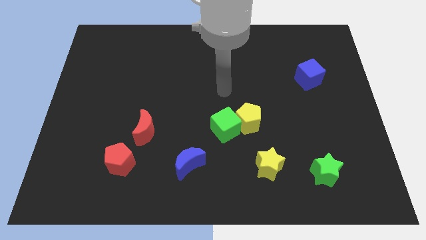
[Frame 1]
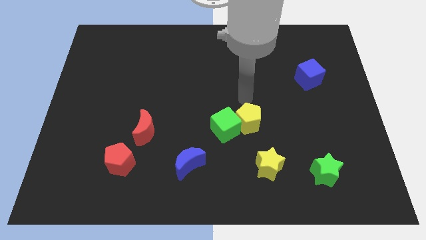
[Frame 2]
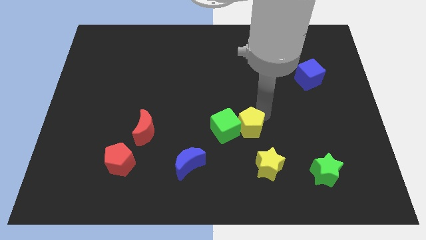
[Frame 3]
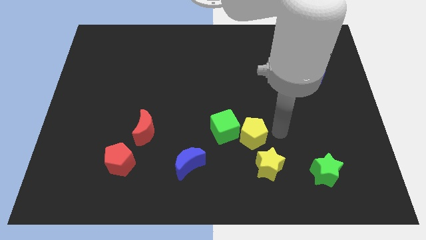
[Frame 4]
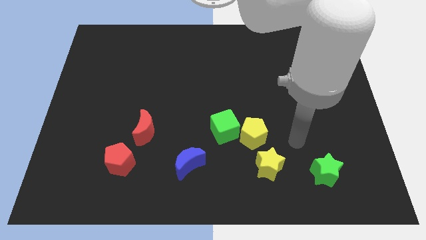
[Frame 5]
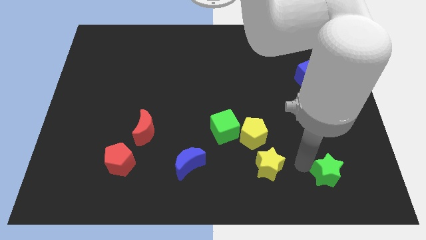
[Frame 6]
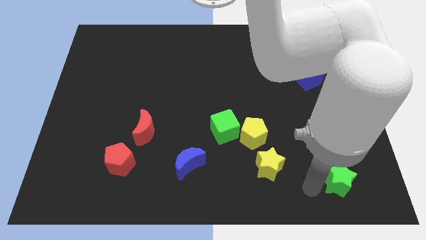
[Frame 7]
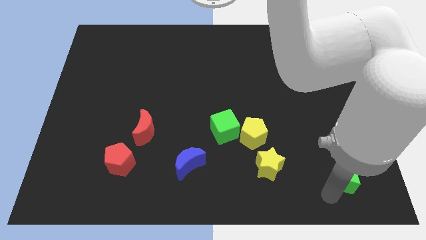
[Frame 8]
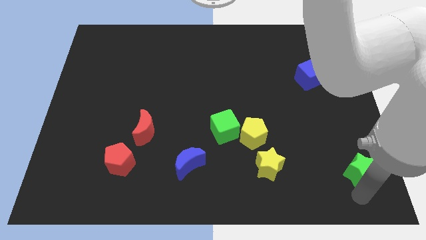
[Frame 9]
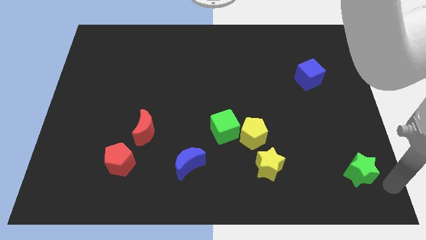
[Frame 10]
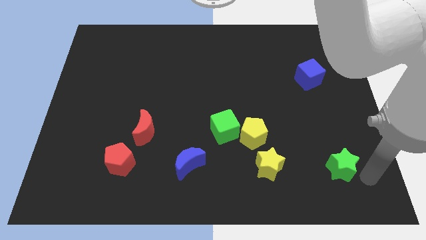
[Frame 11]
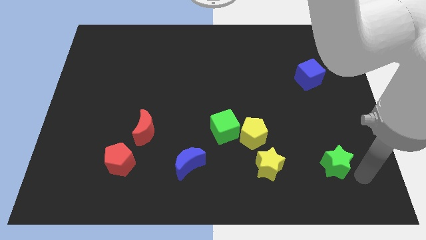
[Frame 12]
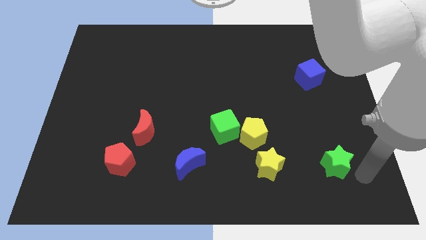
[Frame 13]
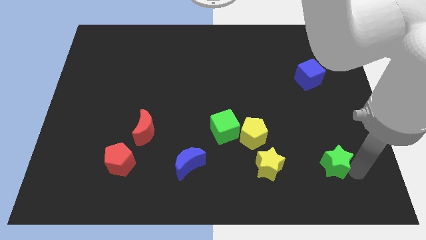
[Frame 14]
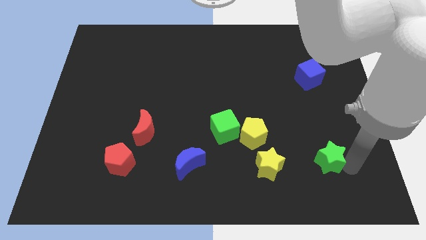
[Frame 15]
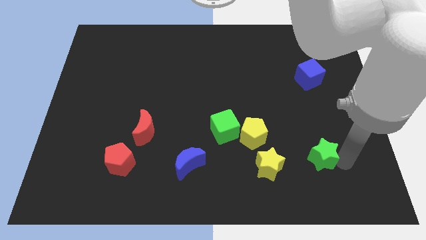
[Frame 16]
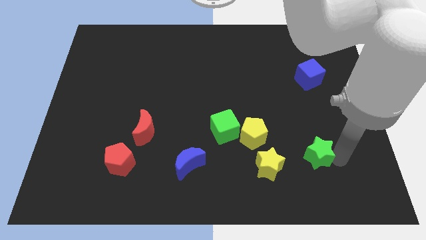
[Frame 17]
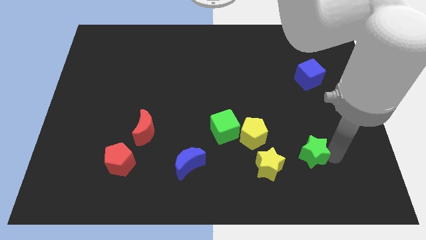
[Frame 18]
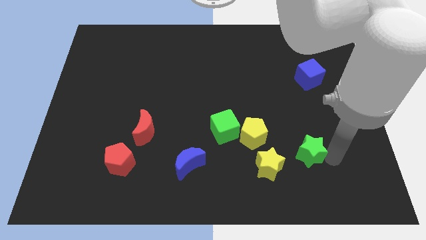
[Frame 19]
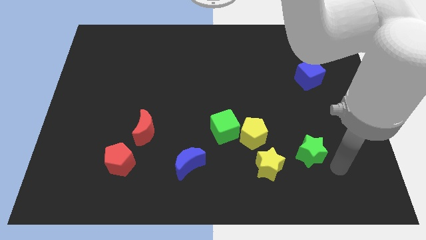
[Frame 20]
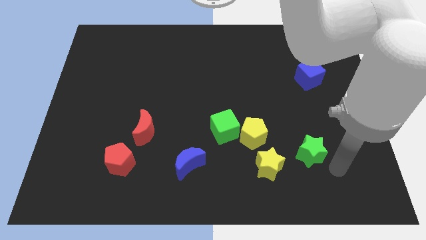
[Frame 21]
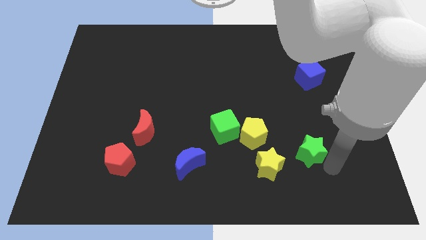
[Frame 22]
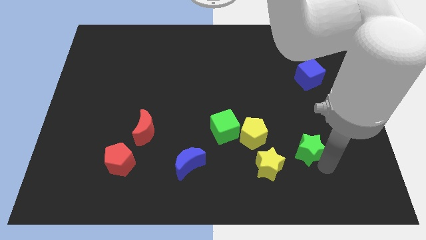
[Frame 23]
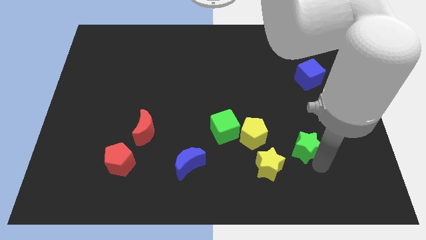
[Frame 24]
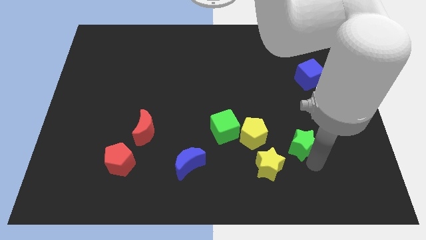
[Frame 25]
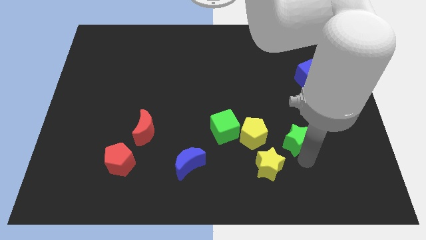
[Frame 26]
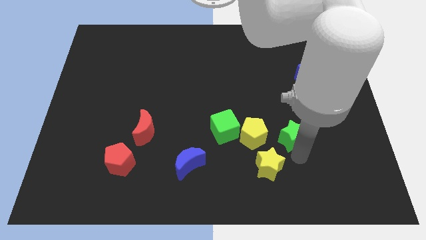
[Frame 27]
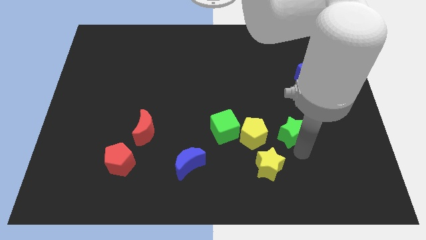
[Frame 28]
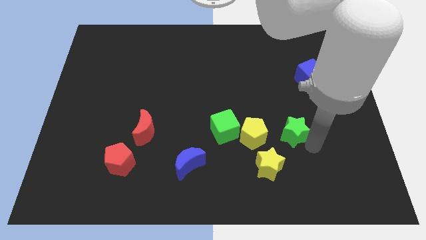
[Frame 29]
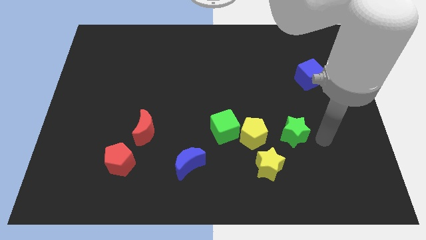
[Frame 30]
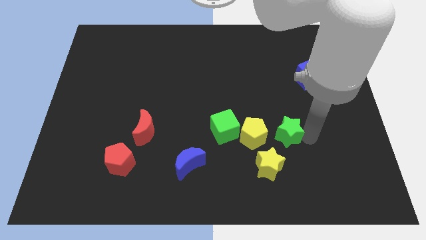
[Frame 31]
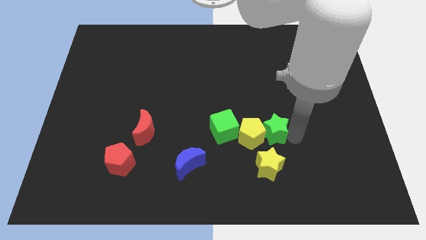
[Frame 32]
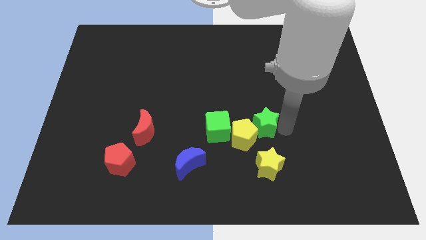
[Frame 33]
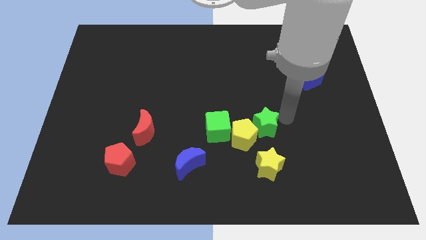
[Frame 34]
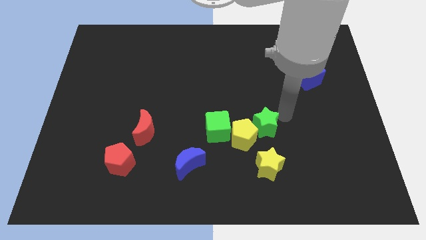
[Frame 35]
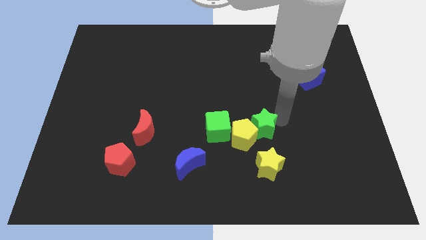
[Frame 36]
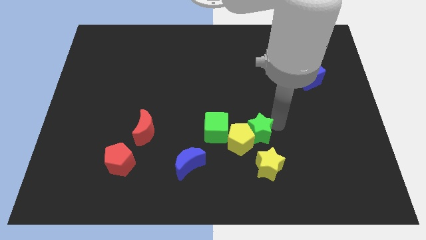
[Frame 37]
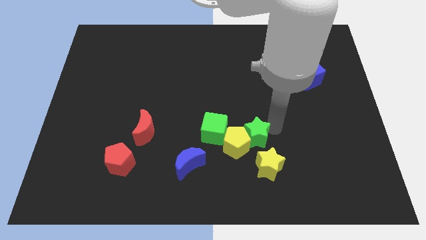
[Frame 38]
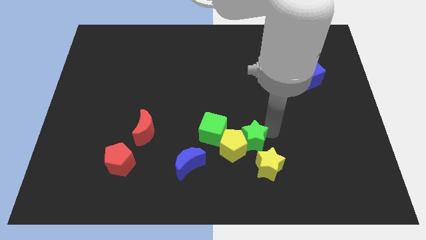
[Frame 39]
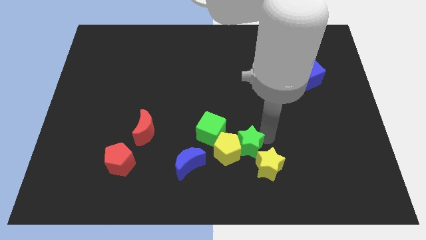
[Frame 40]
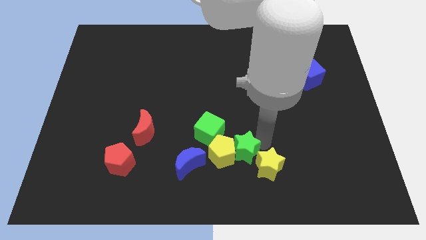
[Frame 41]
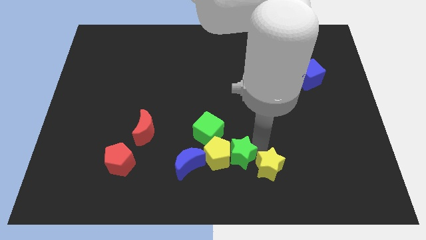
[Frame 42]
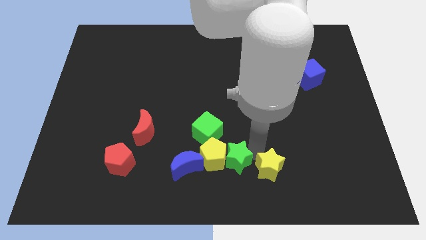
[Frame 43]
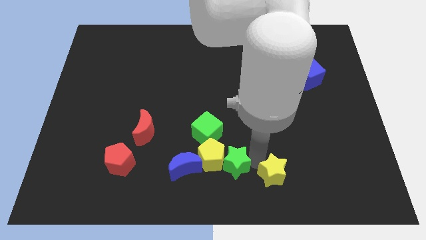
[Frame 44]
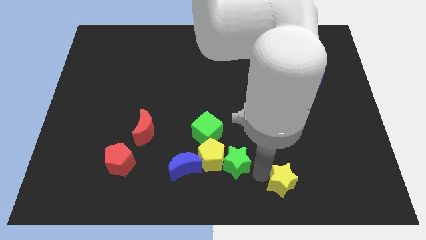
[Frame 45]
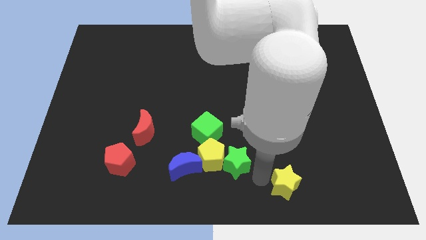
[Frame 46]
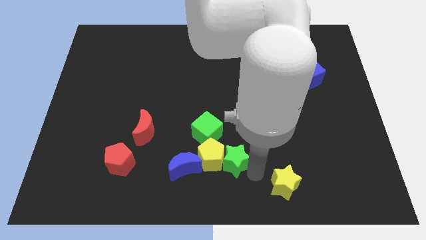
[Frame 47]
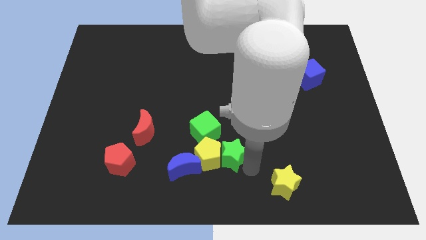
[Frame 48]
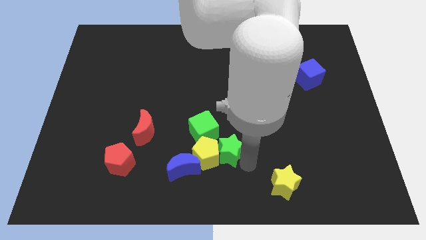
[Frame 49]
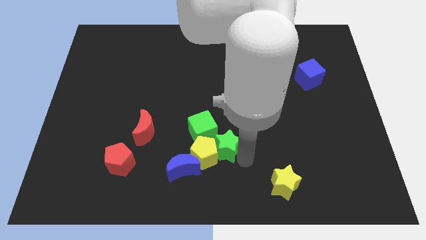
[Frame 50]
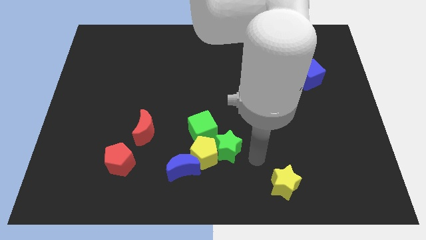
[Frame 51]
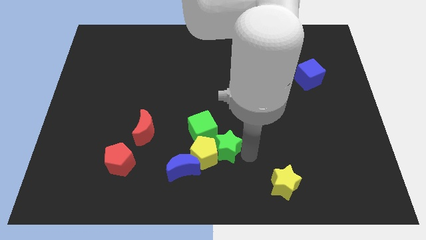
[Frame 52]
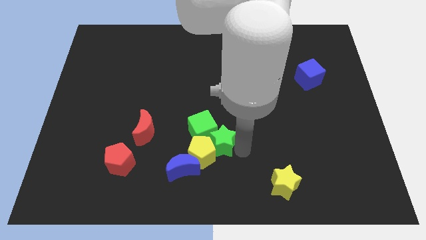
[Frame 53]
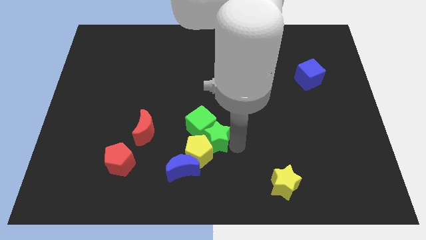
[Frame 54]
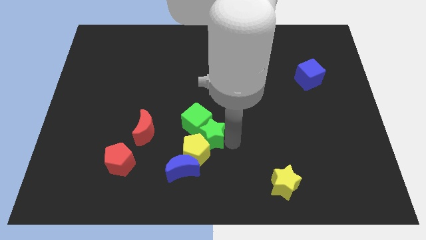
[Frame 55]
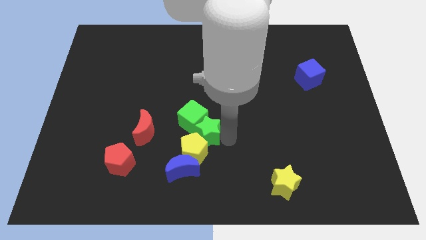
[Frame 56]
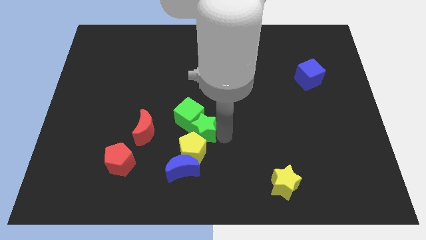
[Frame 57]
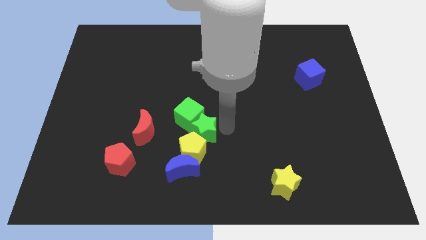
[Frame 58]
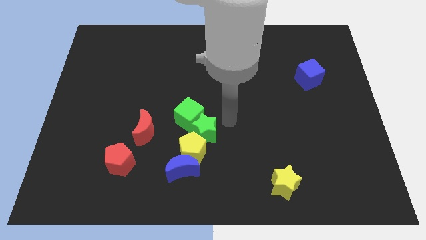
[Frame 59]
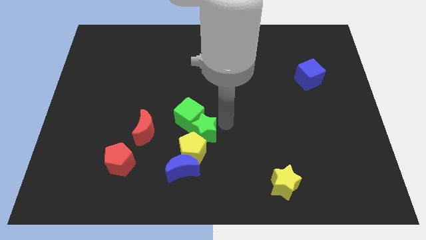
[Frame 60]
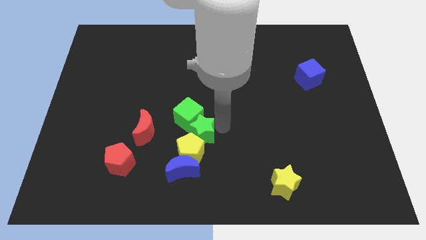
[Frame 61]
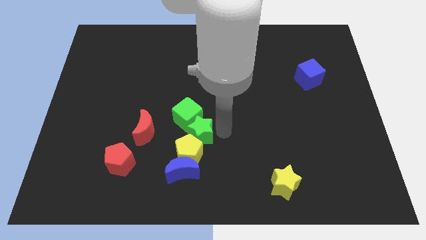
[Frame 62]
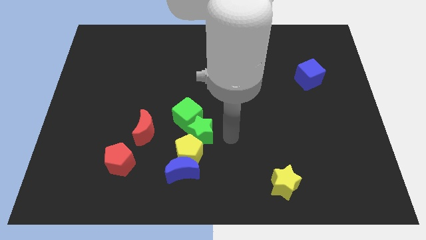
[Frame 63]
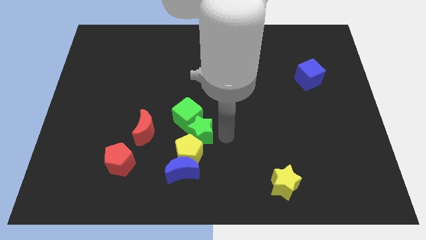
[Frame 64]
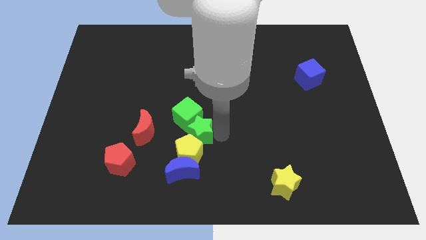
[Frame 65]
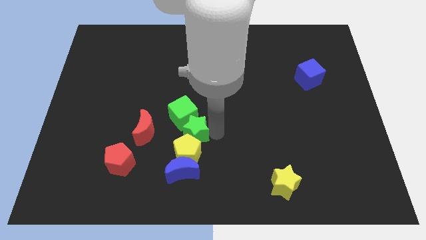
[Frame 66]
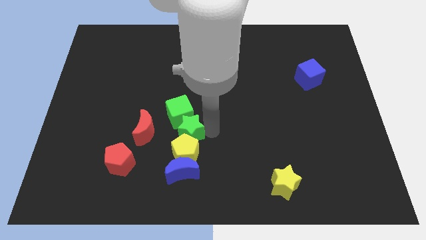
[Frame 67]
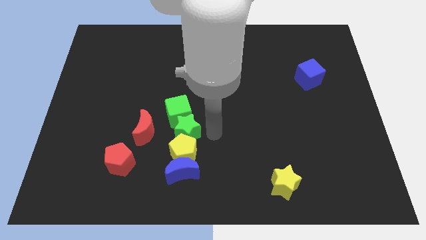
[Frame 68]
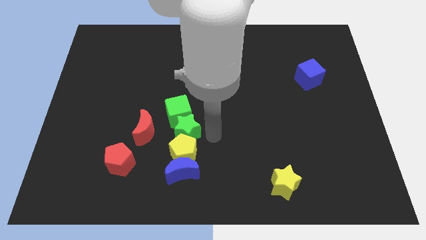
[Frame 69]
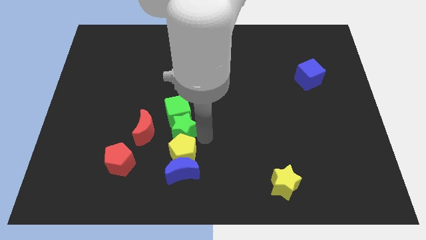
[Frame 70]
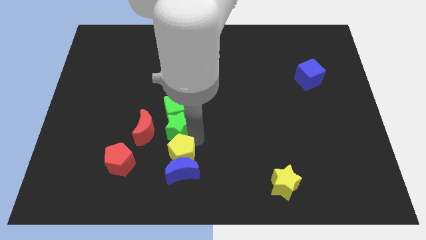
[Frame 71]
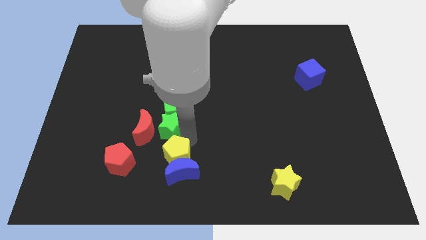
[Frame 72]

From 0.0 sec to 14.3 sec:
put the green star next to the red moon

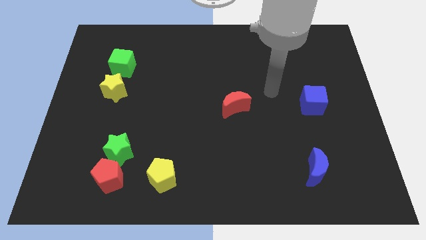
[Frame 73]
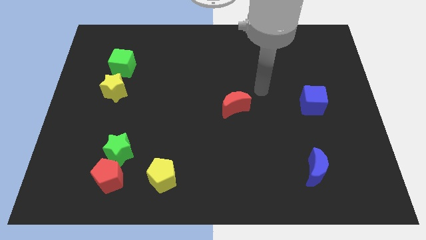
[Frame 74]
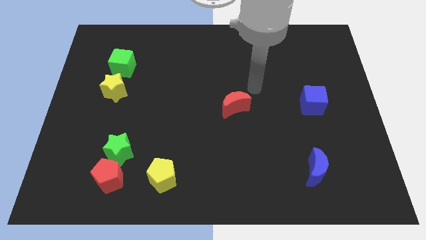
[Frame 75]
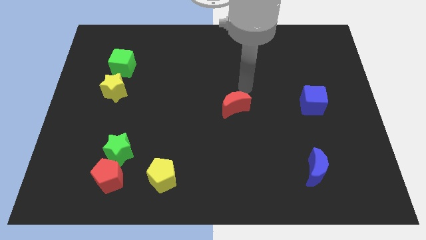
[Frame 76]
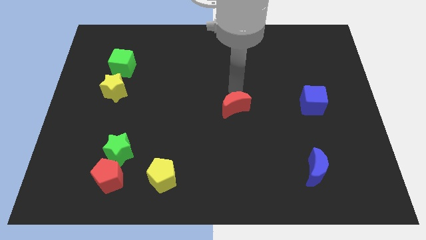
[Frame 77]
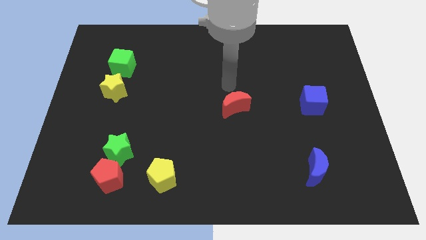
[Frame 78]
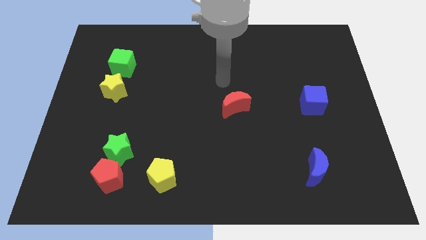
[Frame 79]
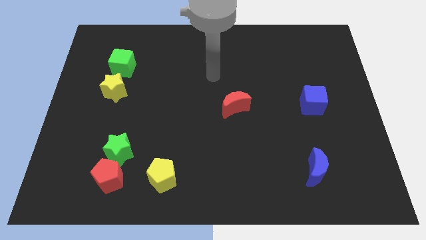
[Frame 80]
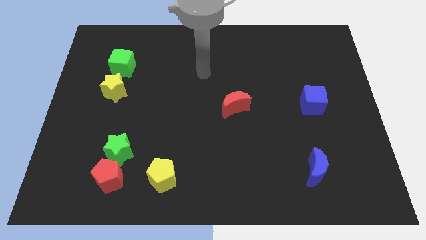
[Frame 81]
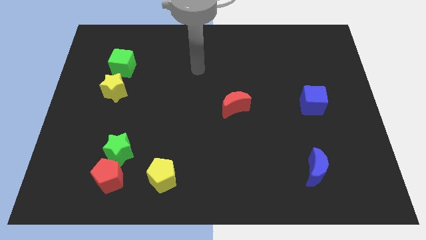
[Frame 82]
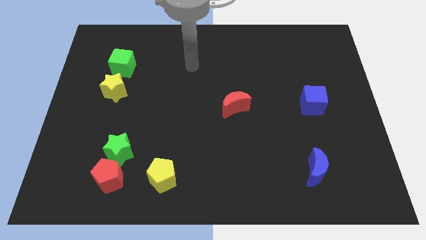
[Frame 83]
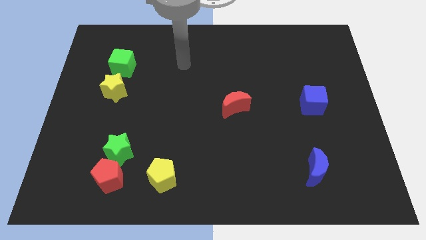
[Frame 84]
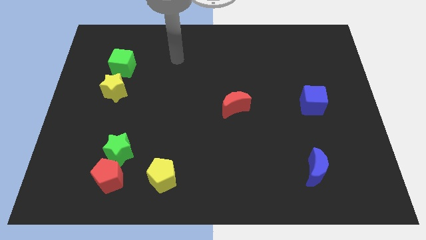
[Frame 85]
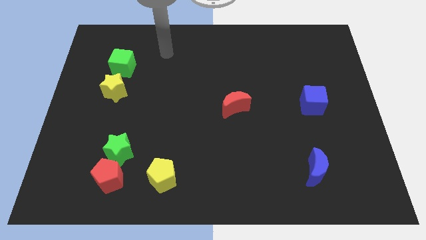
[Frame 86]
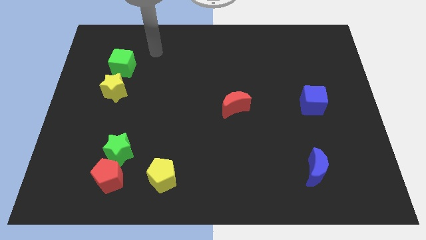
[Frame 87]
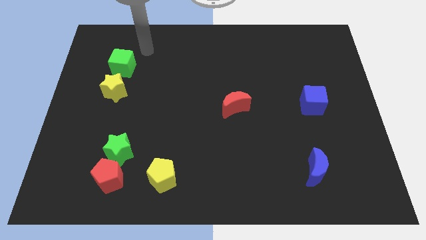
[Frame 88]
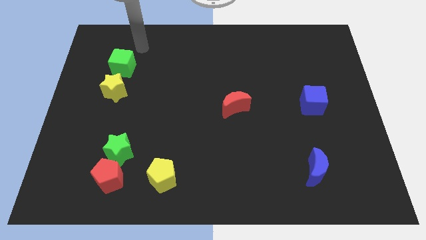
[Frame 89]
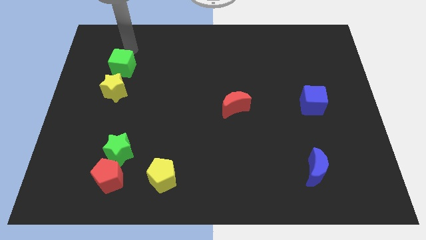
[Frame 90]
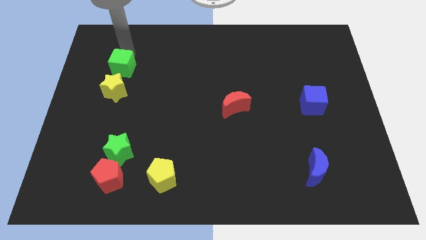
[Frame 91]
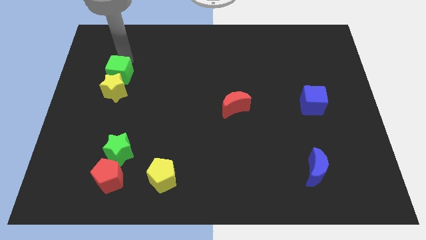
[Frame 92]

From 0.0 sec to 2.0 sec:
put the green cube towards the yellow star
